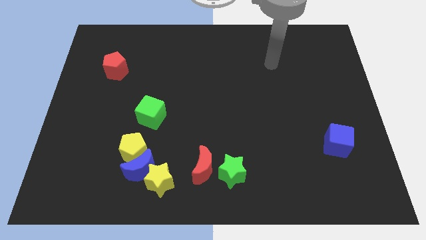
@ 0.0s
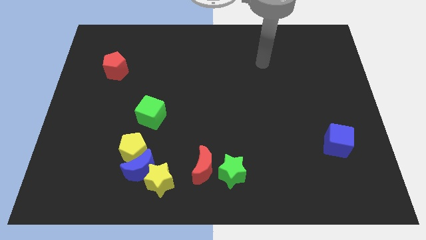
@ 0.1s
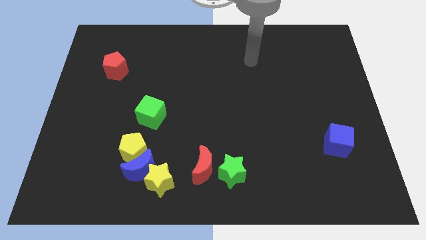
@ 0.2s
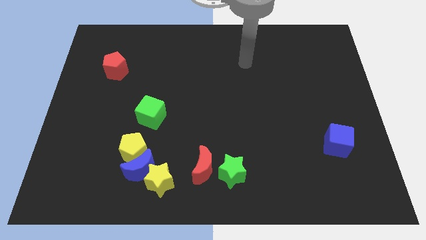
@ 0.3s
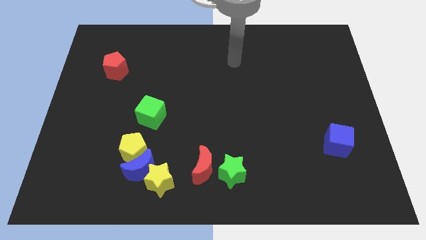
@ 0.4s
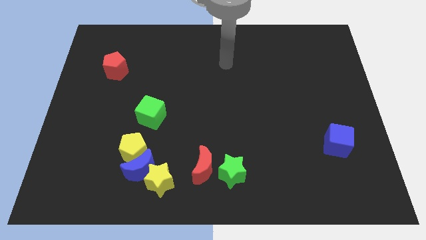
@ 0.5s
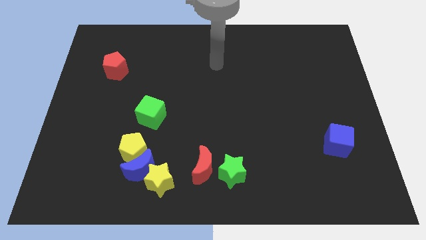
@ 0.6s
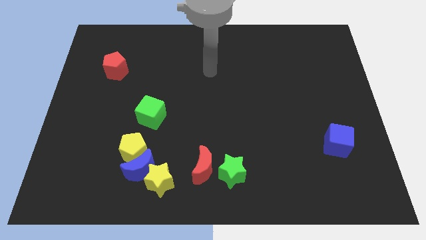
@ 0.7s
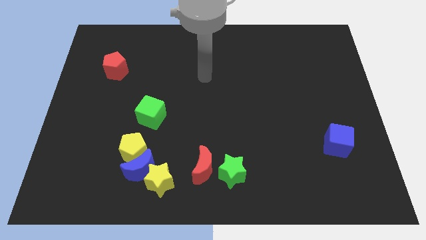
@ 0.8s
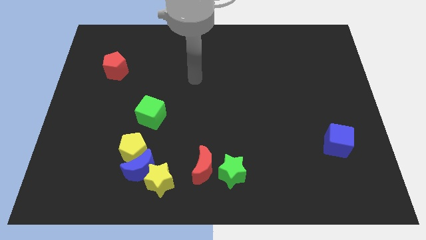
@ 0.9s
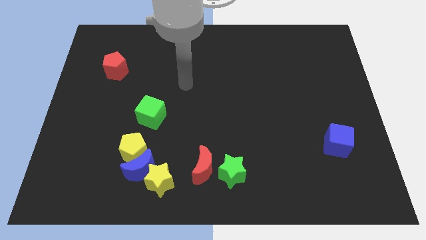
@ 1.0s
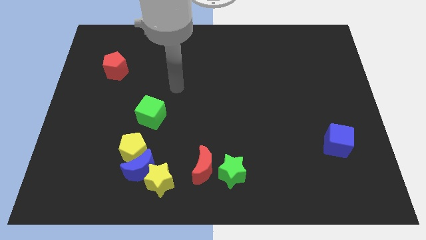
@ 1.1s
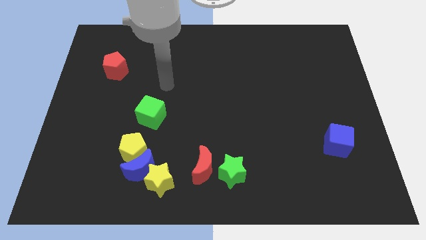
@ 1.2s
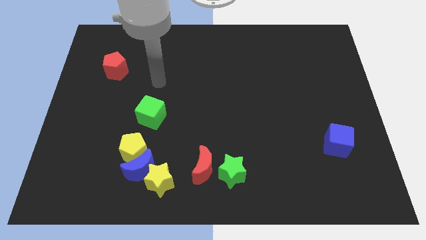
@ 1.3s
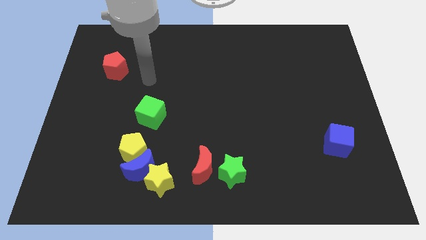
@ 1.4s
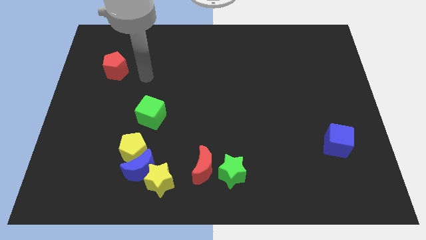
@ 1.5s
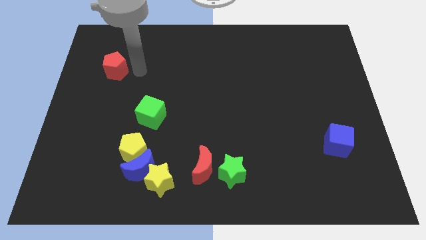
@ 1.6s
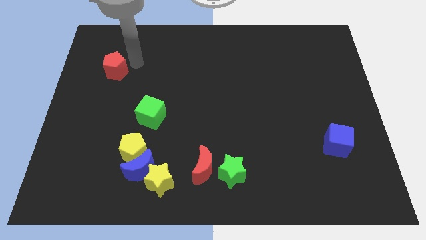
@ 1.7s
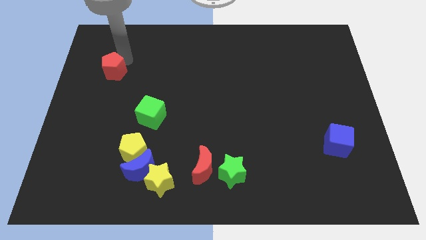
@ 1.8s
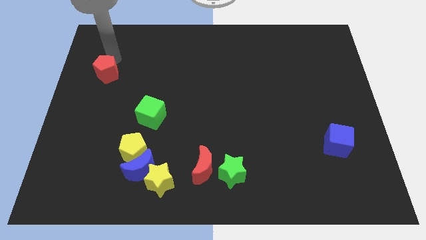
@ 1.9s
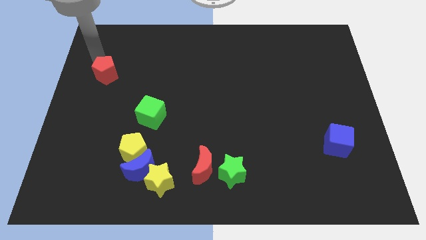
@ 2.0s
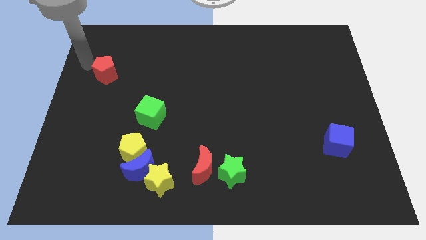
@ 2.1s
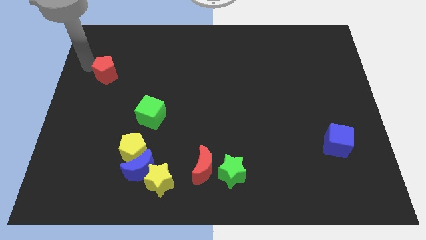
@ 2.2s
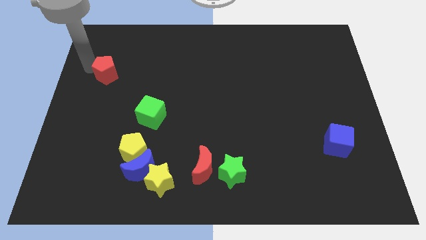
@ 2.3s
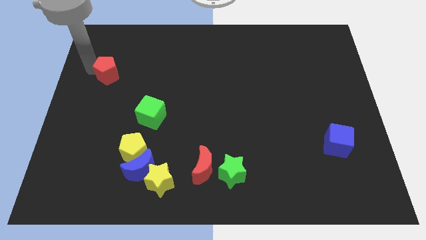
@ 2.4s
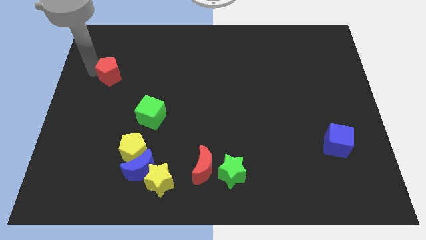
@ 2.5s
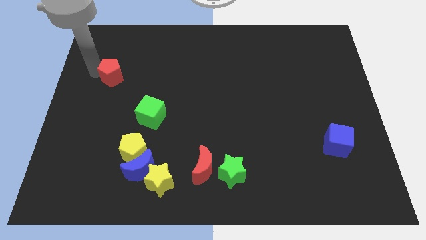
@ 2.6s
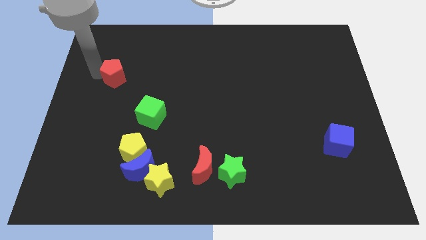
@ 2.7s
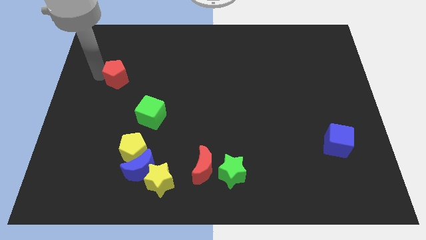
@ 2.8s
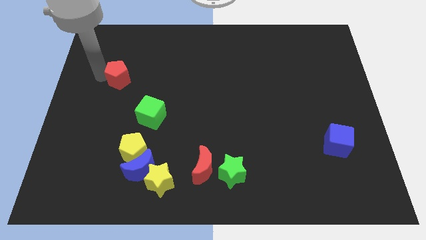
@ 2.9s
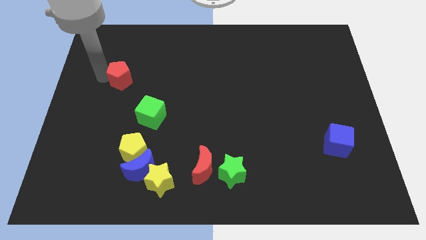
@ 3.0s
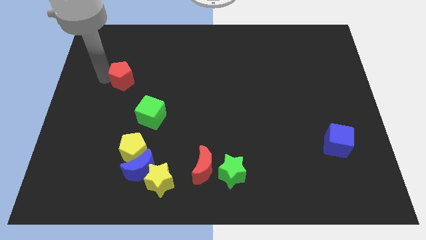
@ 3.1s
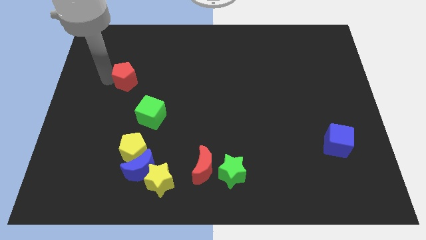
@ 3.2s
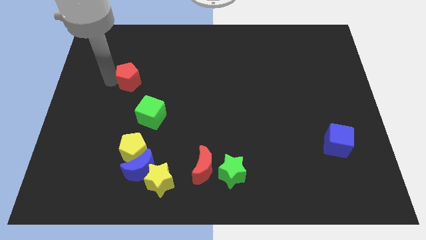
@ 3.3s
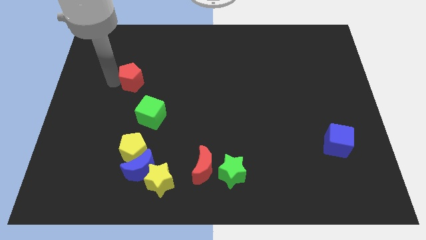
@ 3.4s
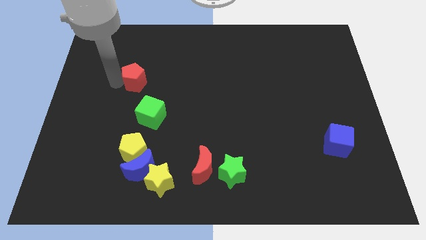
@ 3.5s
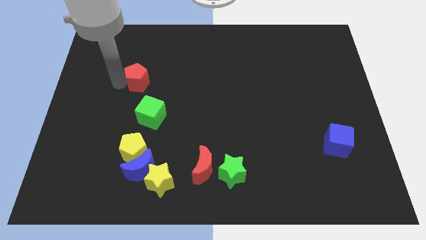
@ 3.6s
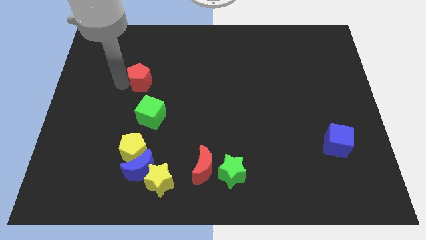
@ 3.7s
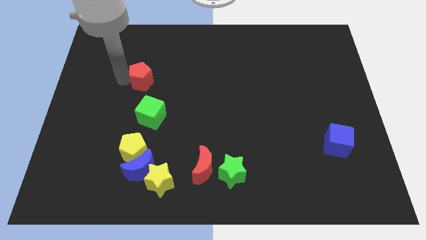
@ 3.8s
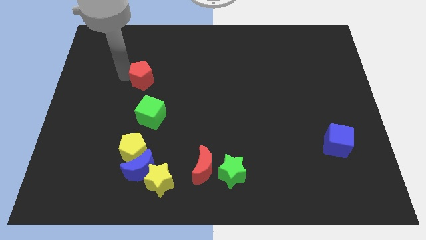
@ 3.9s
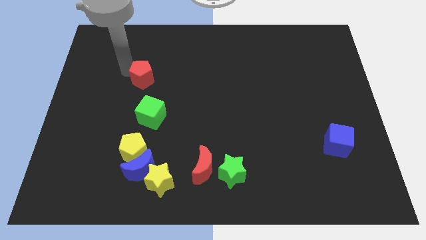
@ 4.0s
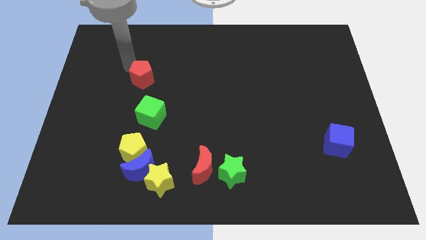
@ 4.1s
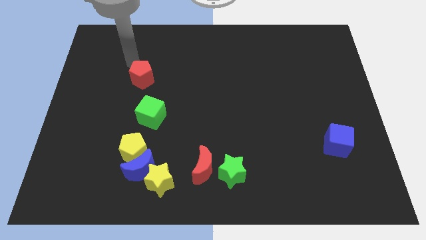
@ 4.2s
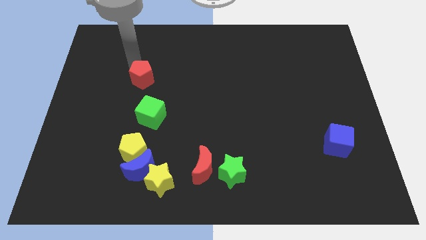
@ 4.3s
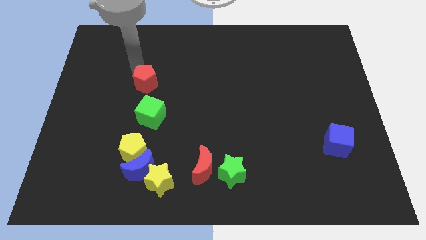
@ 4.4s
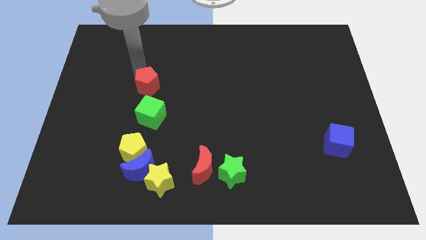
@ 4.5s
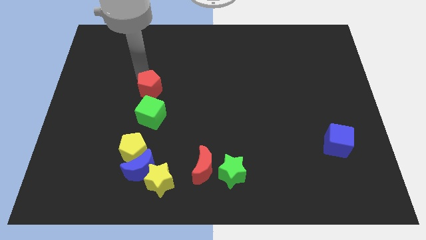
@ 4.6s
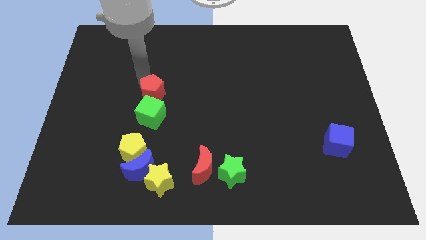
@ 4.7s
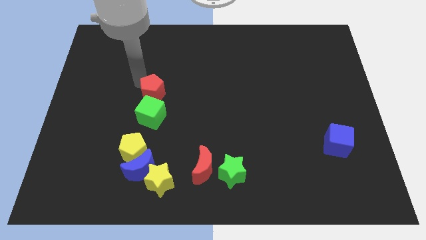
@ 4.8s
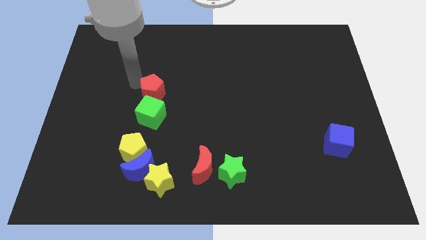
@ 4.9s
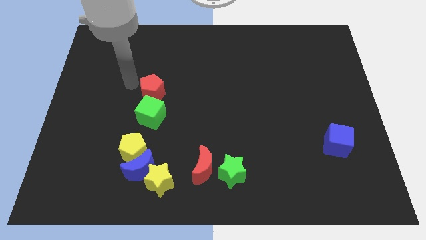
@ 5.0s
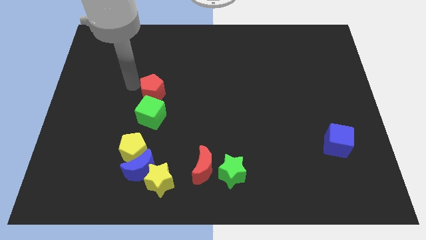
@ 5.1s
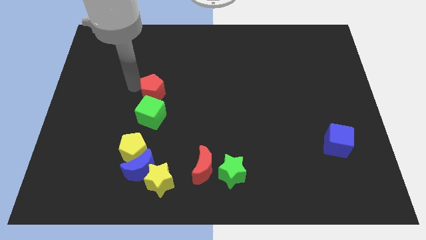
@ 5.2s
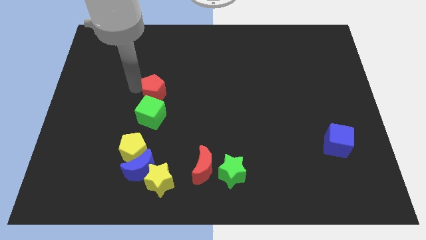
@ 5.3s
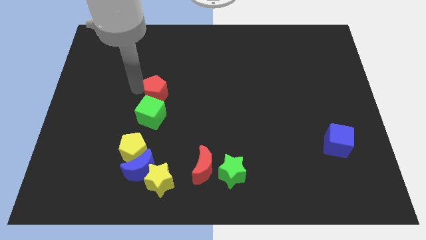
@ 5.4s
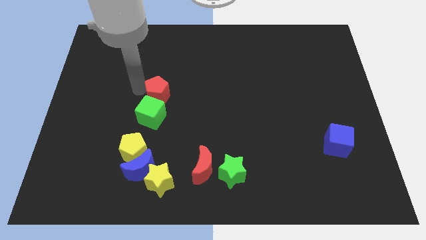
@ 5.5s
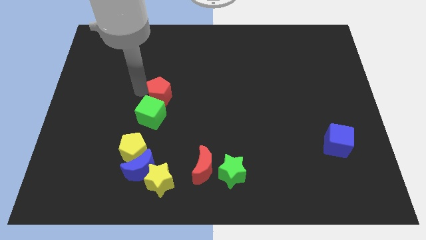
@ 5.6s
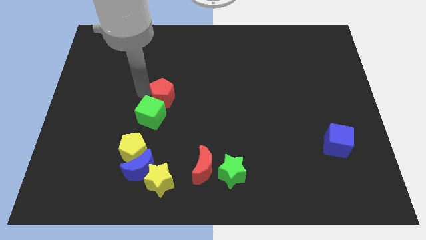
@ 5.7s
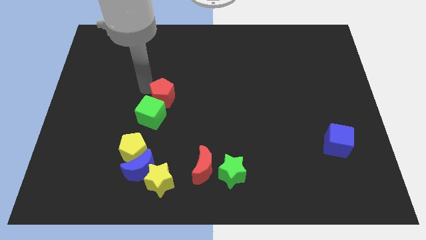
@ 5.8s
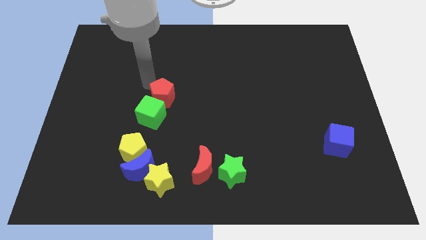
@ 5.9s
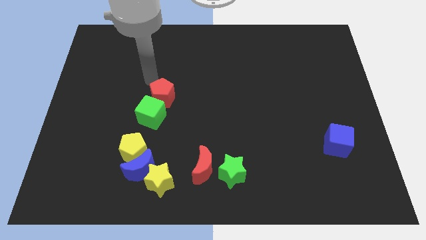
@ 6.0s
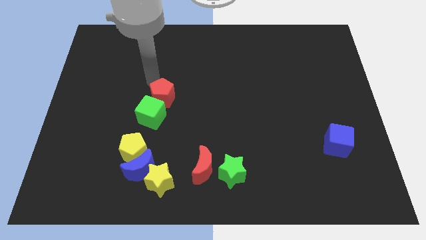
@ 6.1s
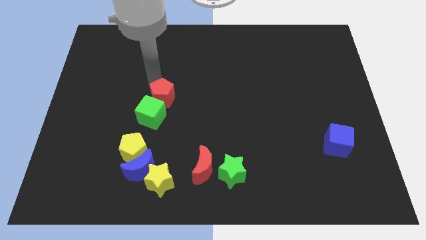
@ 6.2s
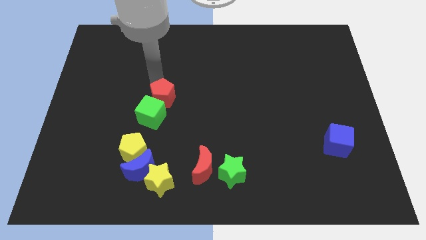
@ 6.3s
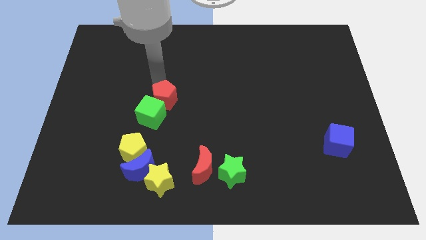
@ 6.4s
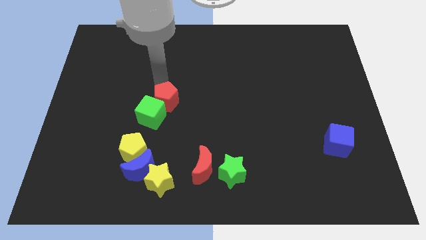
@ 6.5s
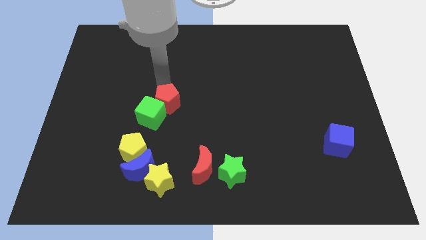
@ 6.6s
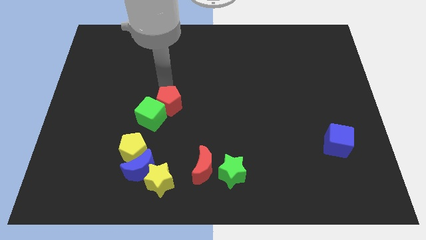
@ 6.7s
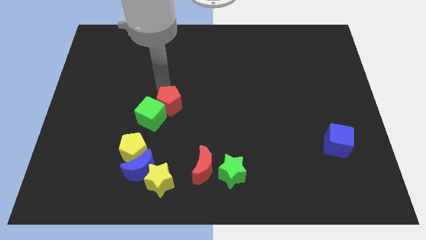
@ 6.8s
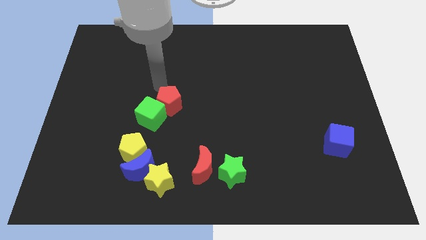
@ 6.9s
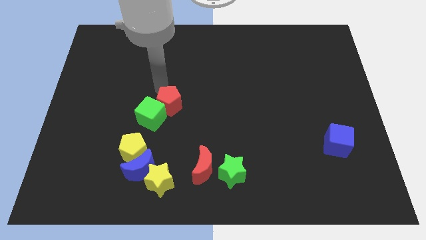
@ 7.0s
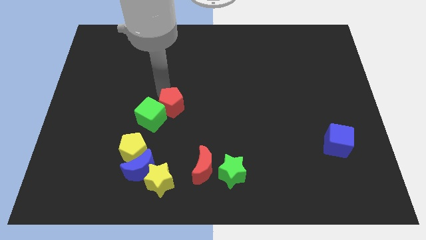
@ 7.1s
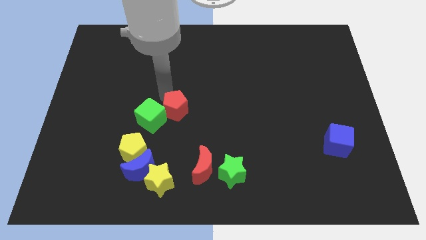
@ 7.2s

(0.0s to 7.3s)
slide the red pentagon downwards and then to the right

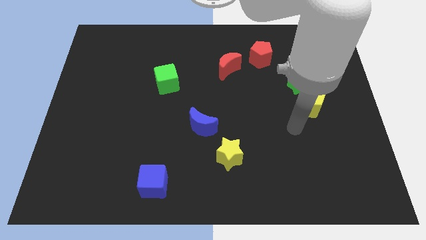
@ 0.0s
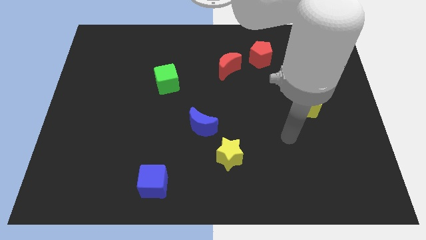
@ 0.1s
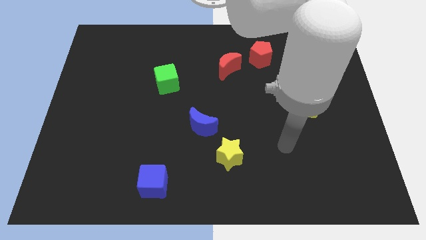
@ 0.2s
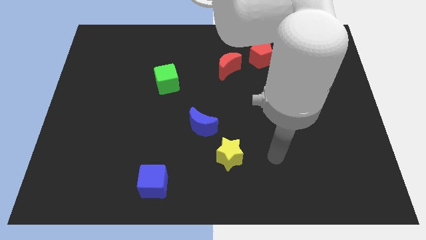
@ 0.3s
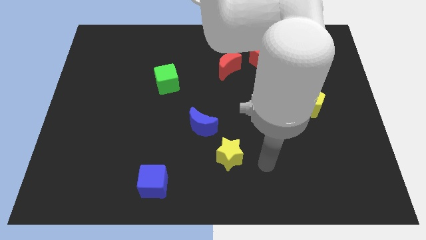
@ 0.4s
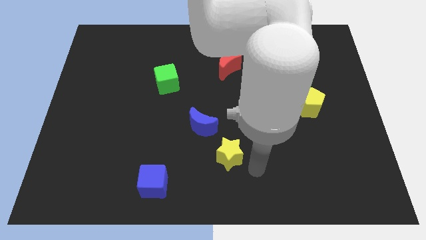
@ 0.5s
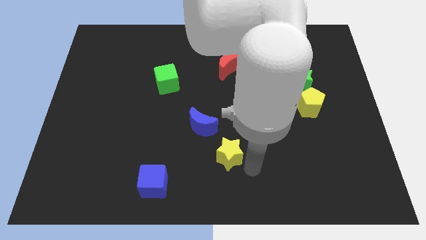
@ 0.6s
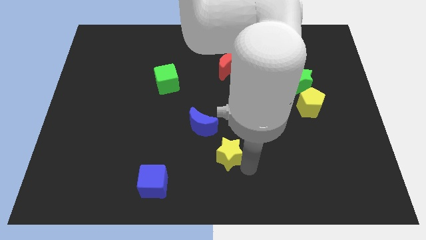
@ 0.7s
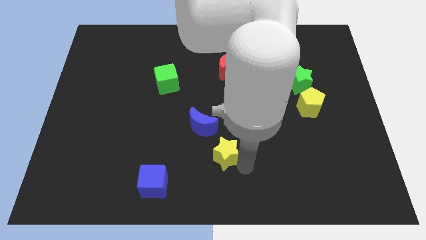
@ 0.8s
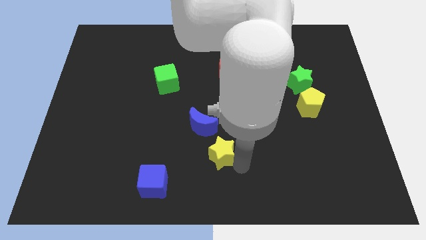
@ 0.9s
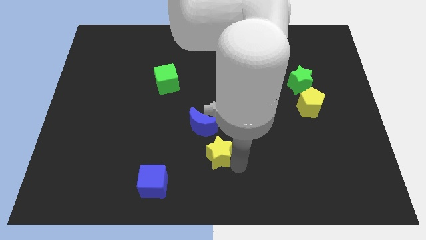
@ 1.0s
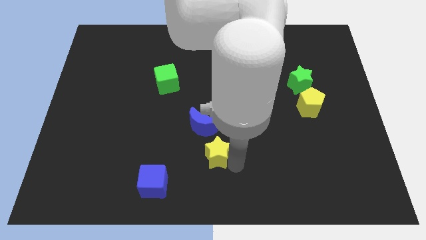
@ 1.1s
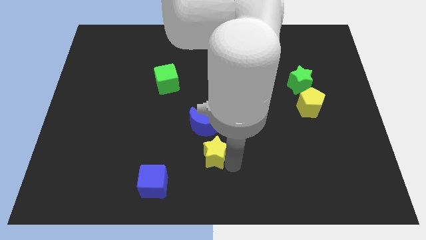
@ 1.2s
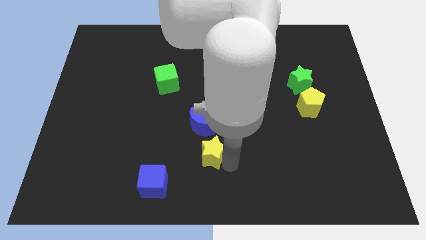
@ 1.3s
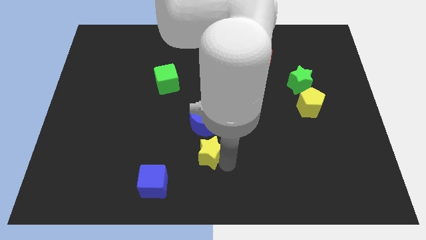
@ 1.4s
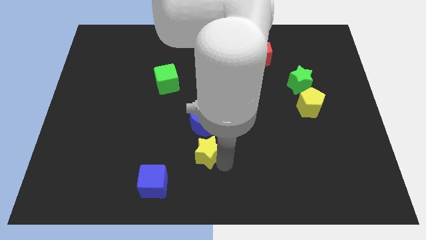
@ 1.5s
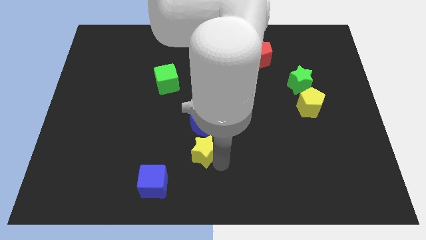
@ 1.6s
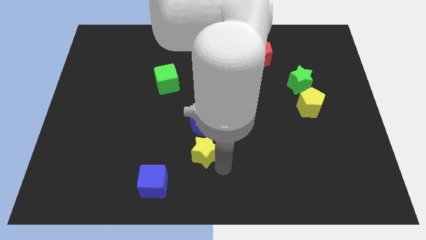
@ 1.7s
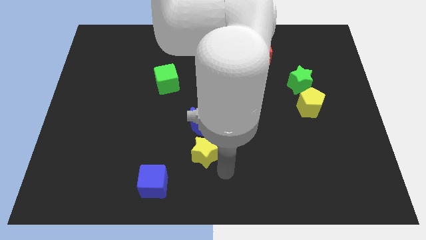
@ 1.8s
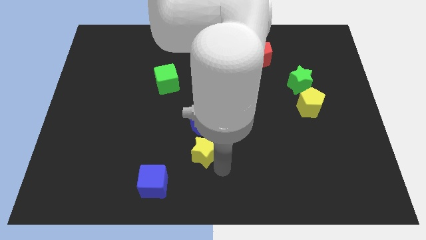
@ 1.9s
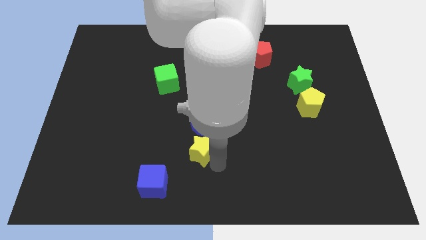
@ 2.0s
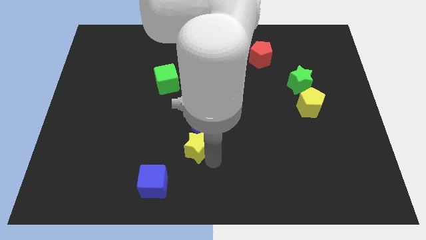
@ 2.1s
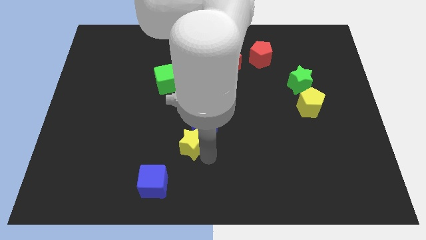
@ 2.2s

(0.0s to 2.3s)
slide the yellow star diagonally upwards and left a little bit
